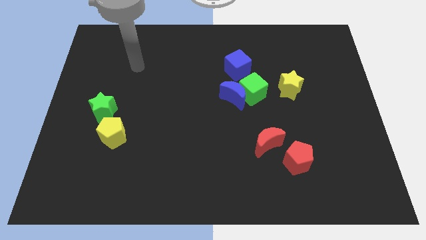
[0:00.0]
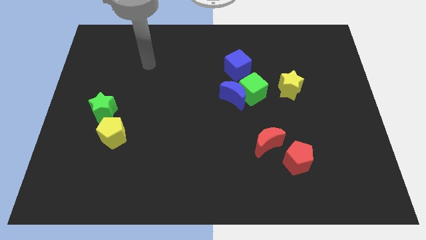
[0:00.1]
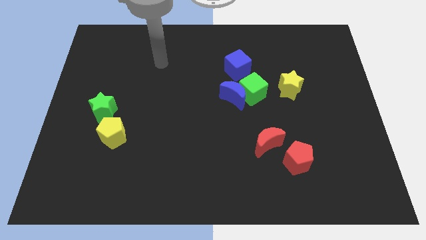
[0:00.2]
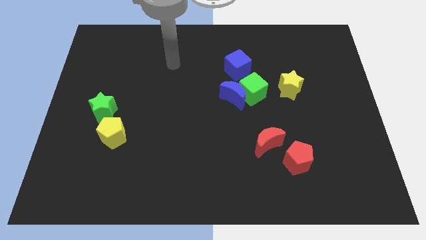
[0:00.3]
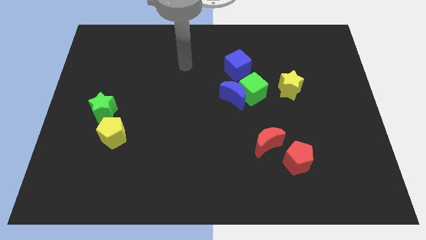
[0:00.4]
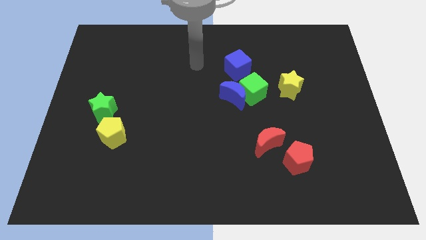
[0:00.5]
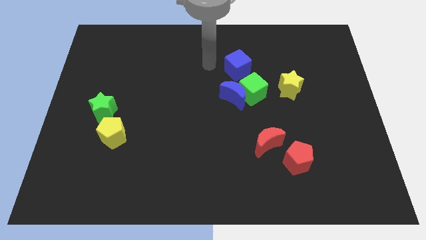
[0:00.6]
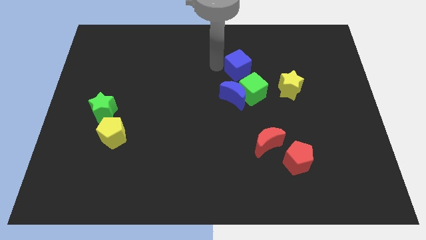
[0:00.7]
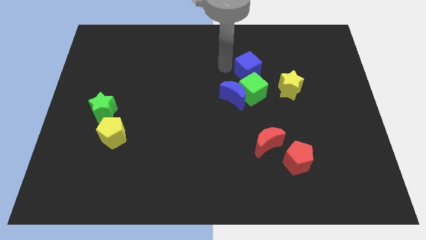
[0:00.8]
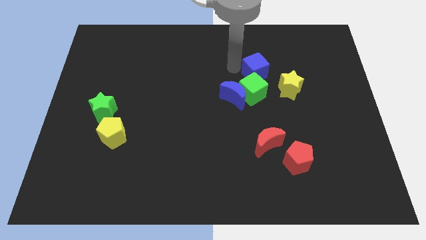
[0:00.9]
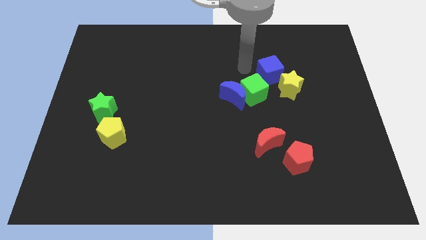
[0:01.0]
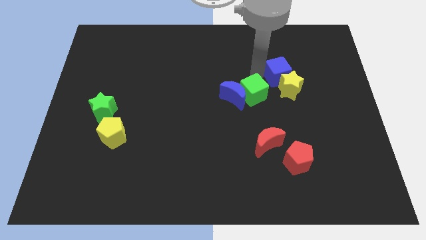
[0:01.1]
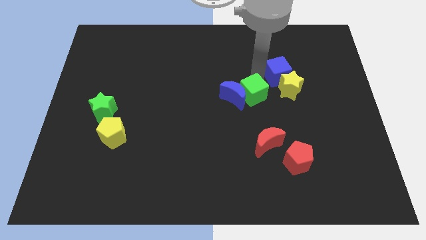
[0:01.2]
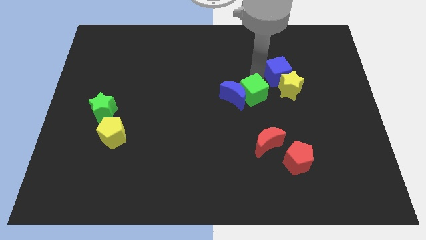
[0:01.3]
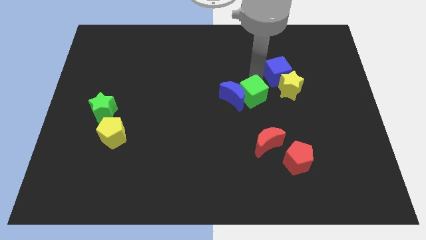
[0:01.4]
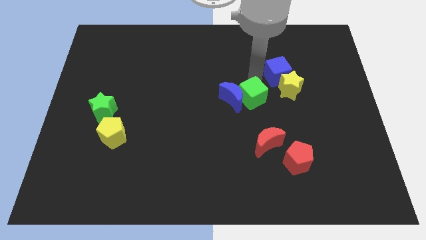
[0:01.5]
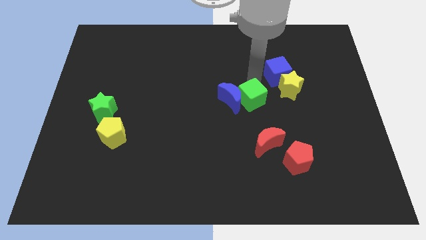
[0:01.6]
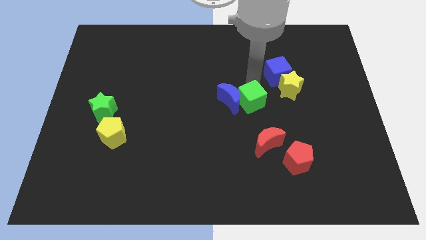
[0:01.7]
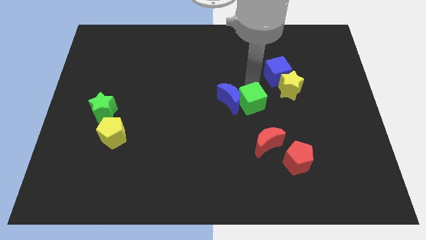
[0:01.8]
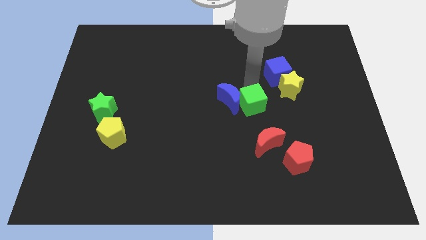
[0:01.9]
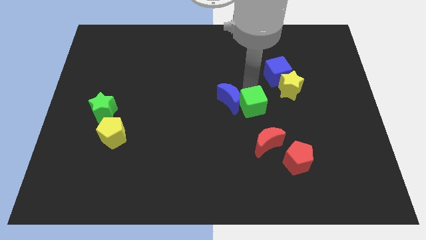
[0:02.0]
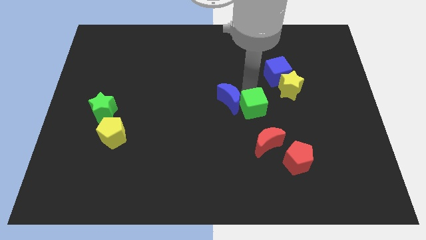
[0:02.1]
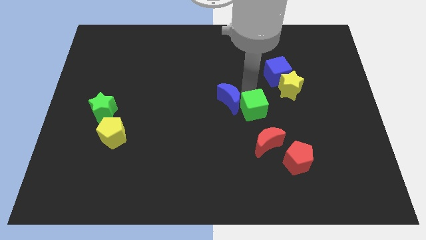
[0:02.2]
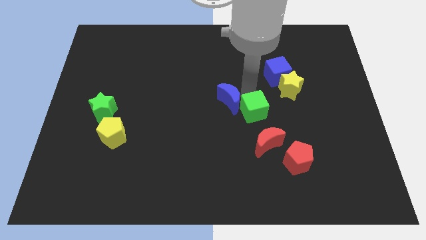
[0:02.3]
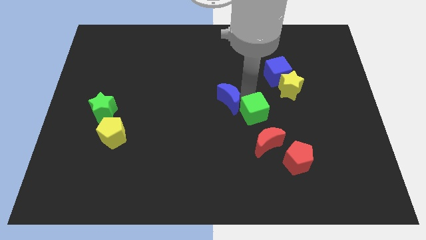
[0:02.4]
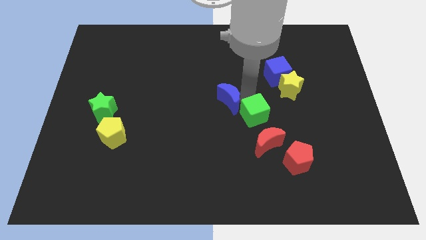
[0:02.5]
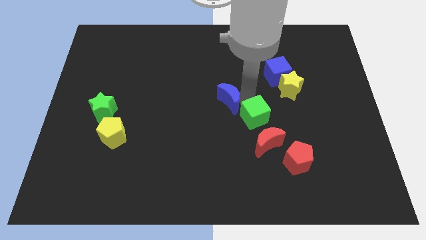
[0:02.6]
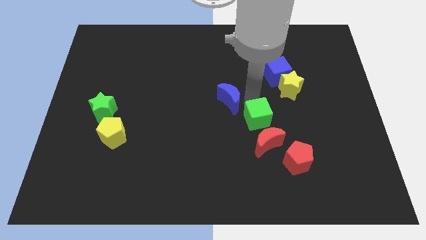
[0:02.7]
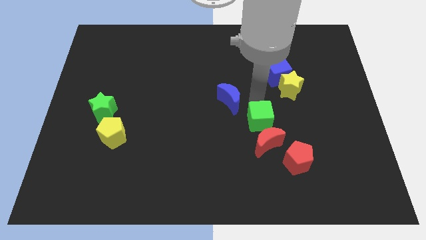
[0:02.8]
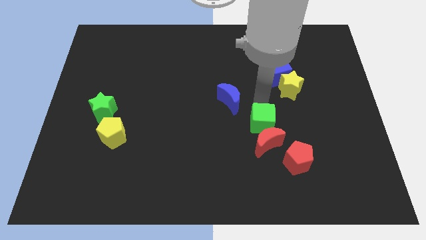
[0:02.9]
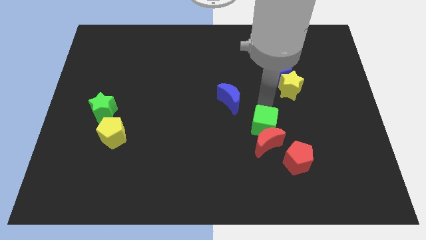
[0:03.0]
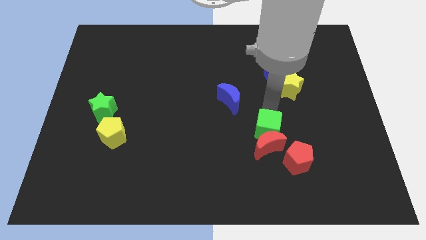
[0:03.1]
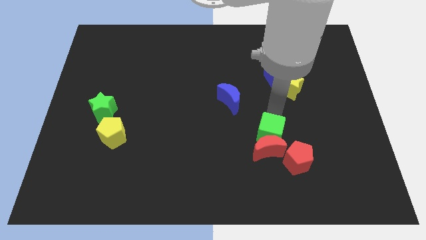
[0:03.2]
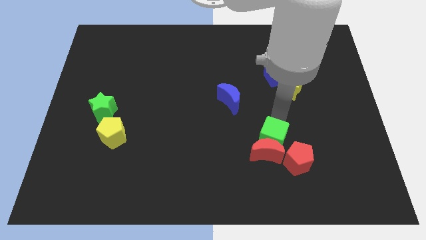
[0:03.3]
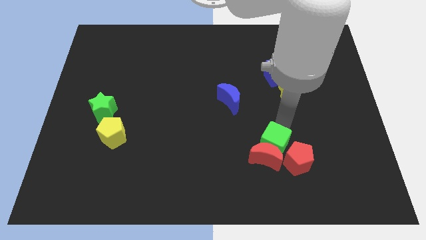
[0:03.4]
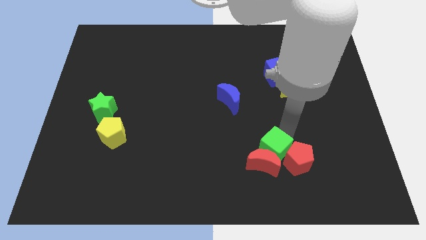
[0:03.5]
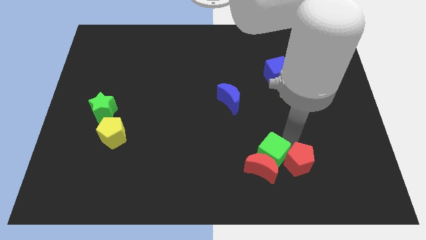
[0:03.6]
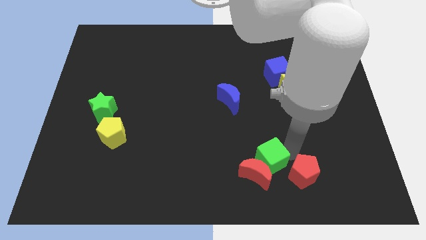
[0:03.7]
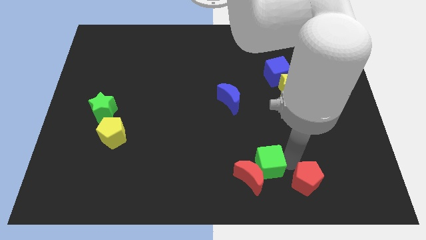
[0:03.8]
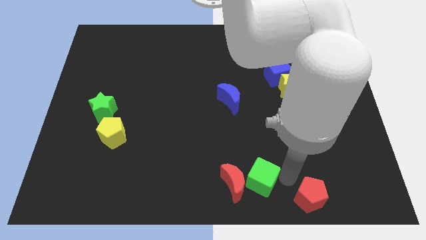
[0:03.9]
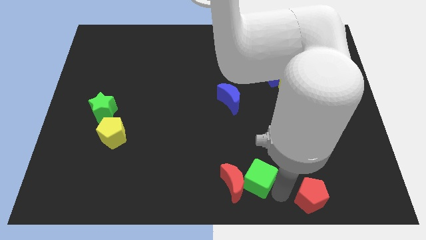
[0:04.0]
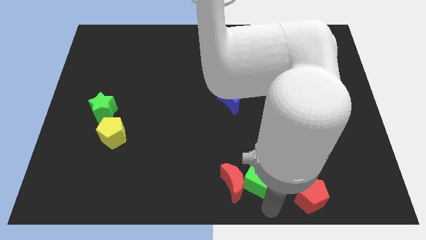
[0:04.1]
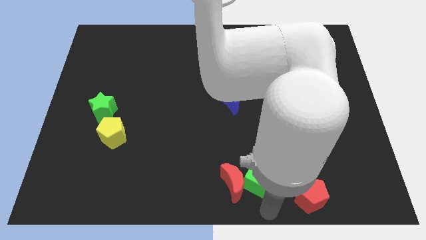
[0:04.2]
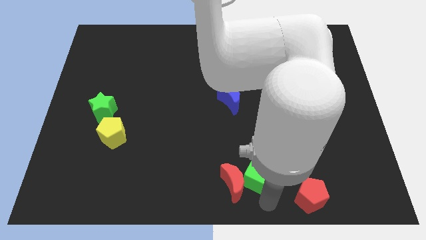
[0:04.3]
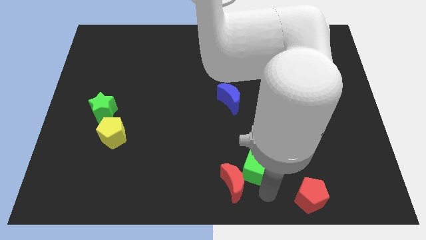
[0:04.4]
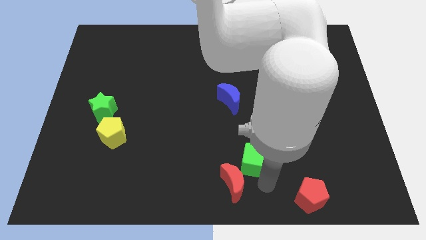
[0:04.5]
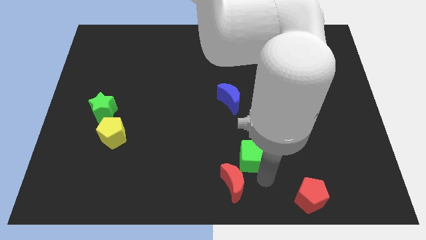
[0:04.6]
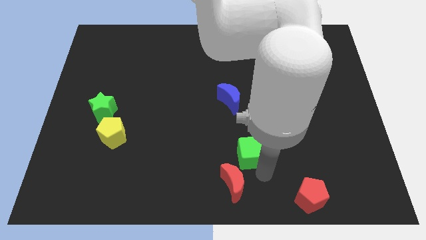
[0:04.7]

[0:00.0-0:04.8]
slide the green cube somewhat down and left

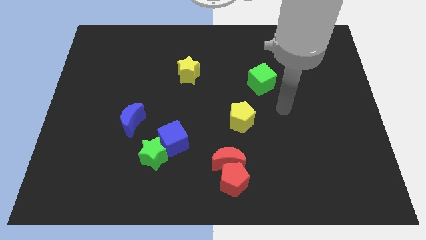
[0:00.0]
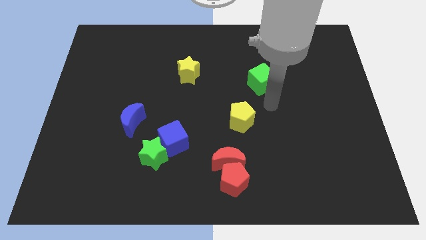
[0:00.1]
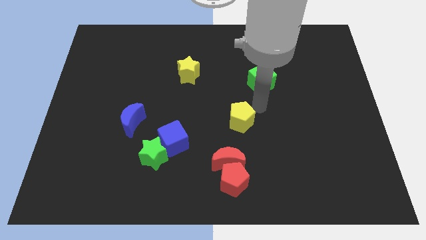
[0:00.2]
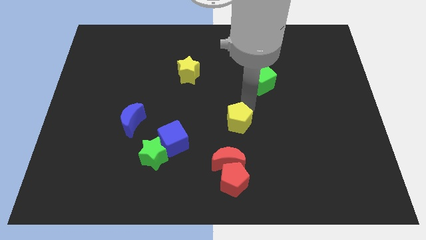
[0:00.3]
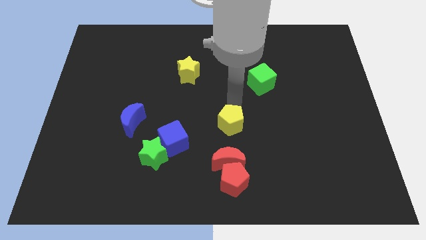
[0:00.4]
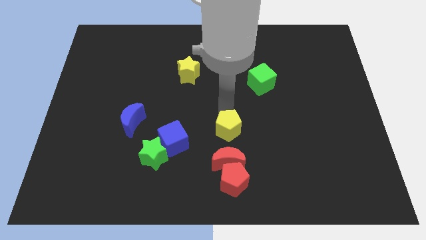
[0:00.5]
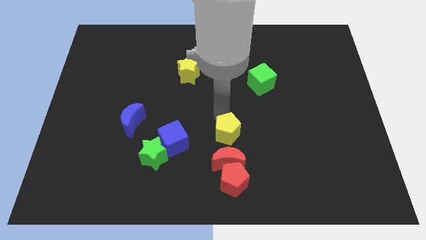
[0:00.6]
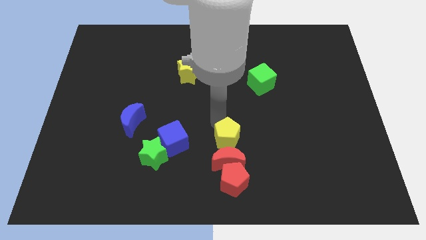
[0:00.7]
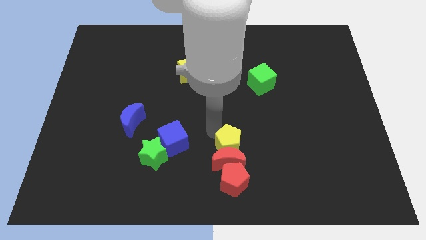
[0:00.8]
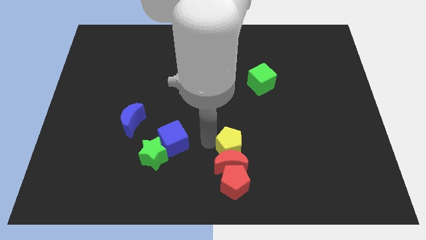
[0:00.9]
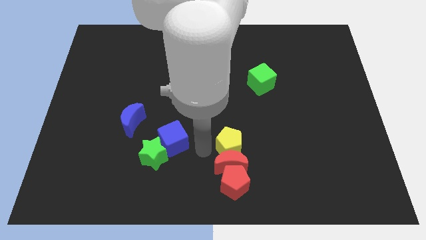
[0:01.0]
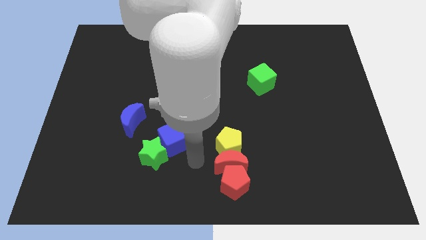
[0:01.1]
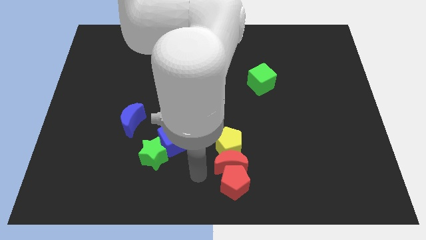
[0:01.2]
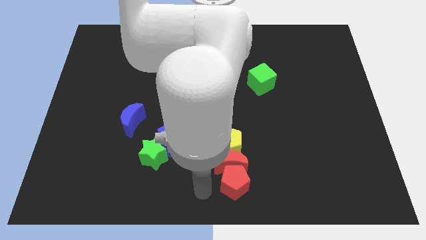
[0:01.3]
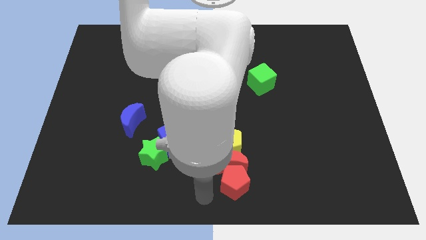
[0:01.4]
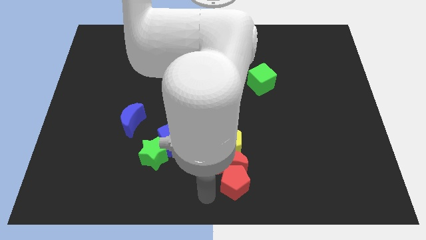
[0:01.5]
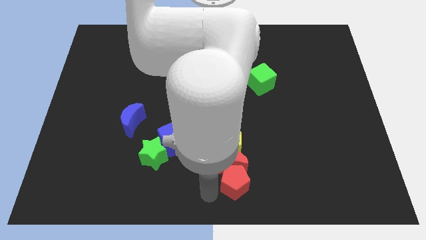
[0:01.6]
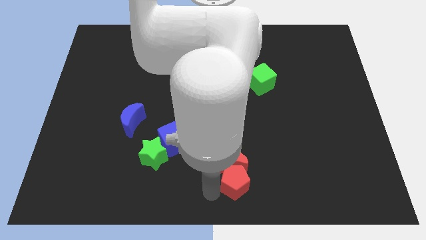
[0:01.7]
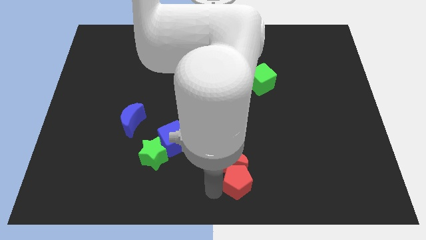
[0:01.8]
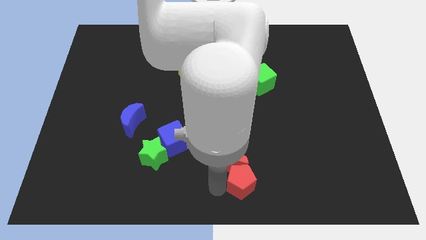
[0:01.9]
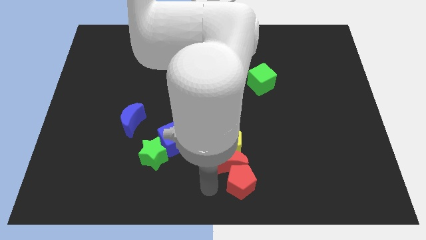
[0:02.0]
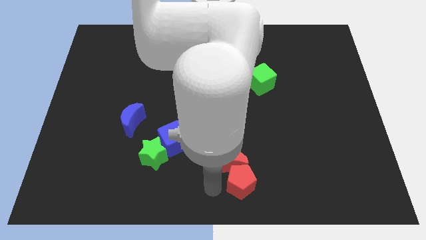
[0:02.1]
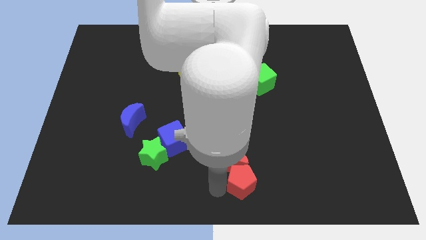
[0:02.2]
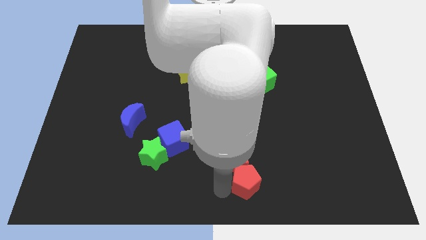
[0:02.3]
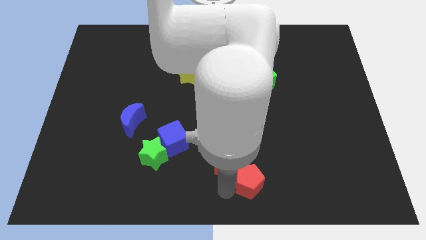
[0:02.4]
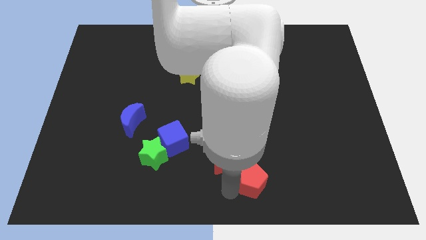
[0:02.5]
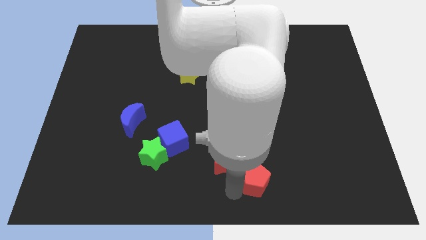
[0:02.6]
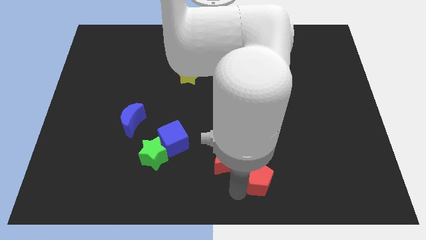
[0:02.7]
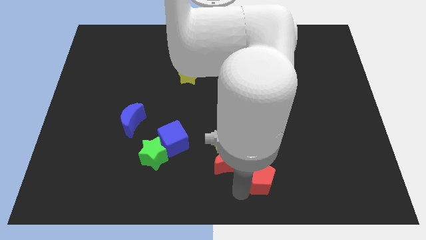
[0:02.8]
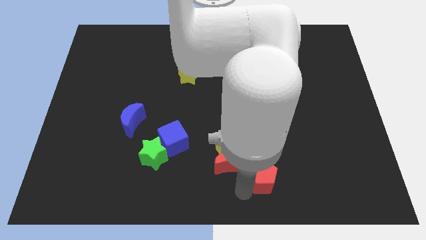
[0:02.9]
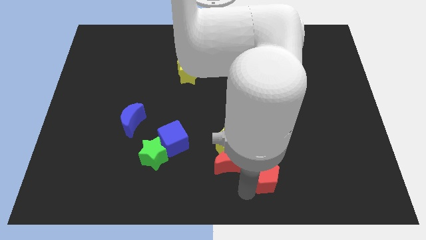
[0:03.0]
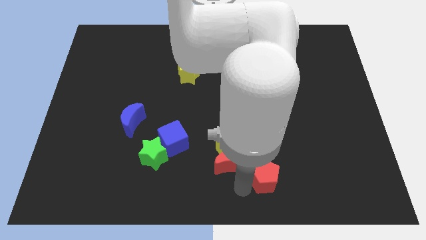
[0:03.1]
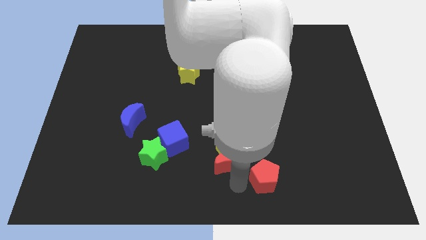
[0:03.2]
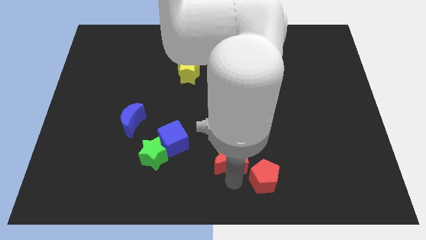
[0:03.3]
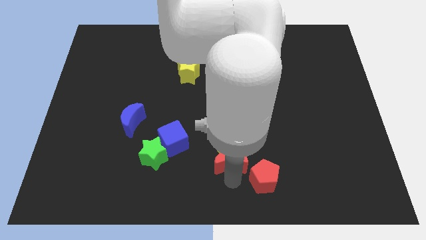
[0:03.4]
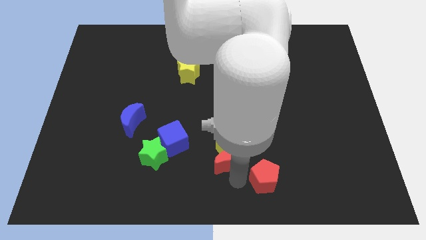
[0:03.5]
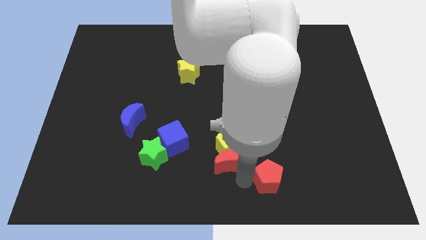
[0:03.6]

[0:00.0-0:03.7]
push the red pentagon right a bit
